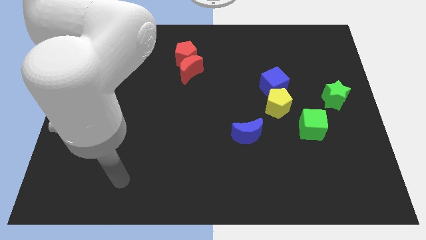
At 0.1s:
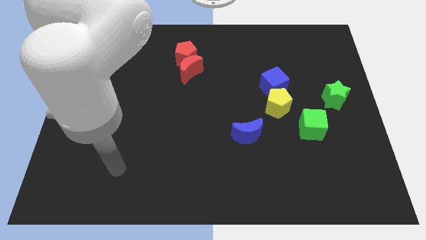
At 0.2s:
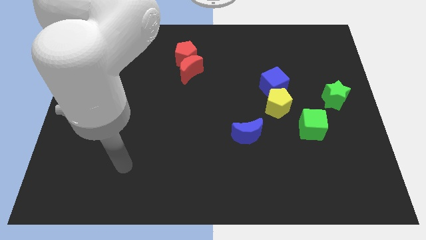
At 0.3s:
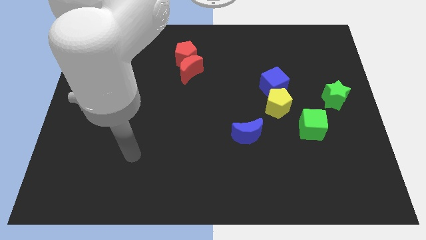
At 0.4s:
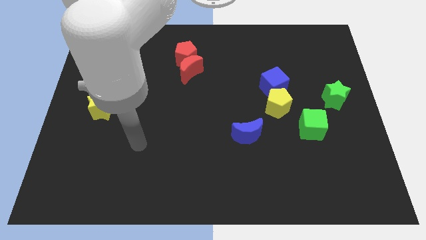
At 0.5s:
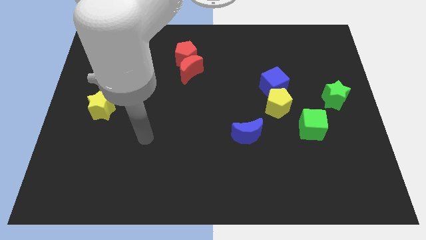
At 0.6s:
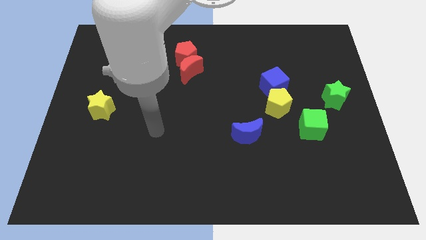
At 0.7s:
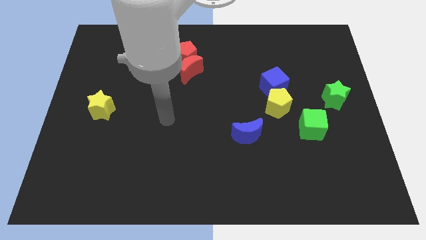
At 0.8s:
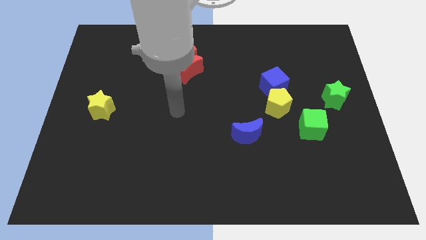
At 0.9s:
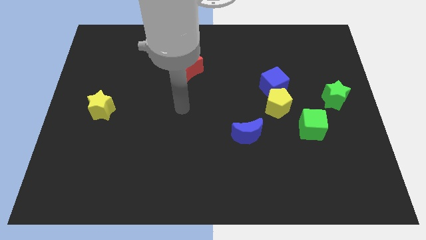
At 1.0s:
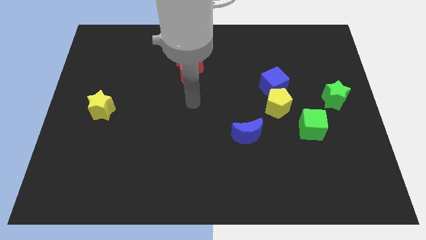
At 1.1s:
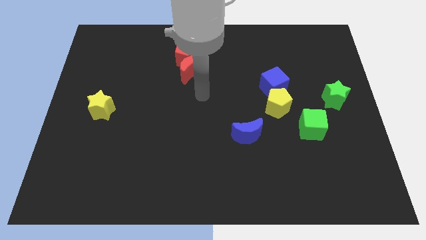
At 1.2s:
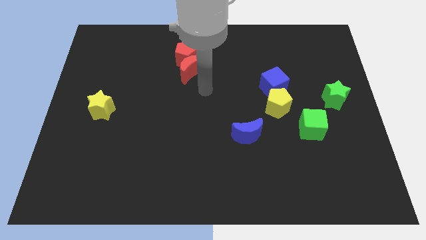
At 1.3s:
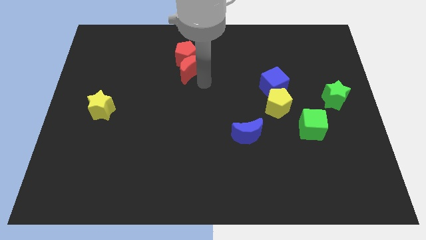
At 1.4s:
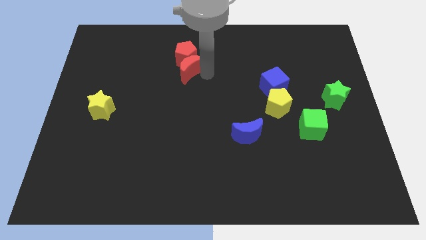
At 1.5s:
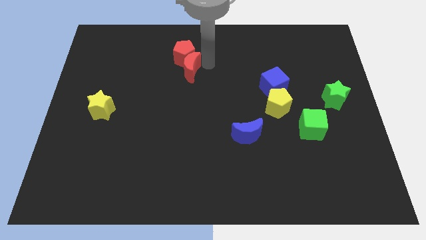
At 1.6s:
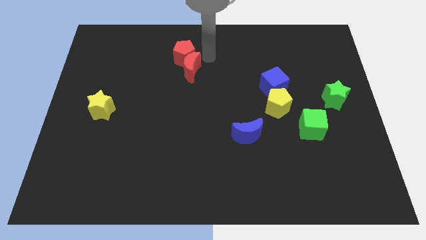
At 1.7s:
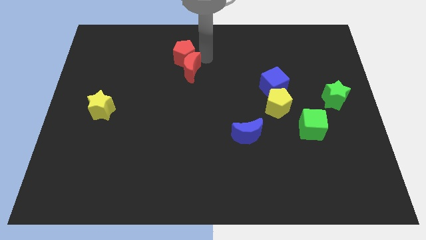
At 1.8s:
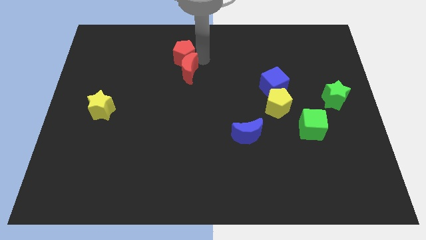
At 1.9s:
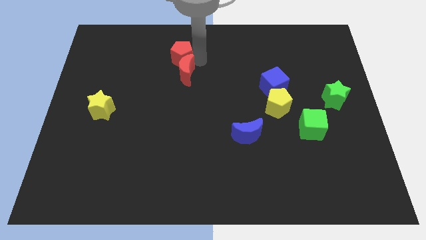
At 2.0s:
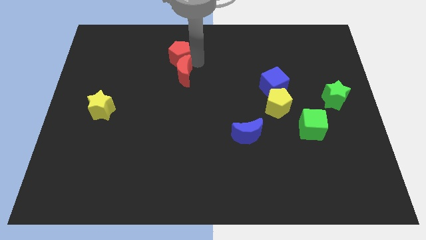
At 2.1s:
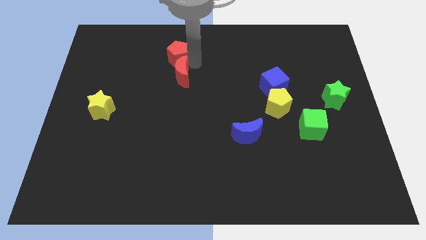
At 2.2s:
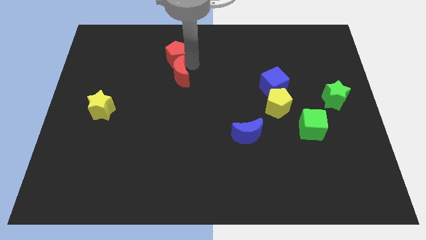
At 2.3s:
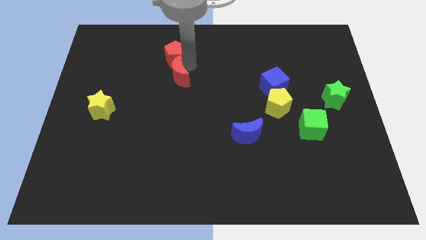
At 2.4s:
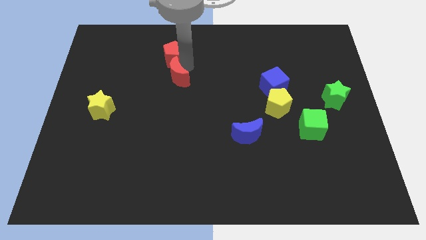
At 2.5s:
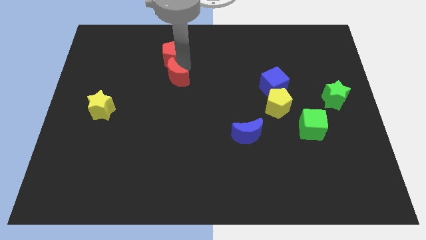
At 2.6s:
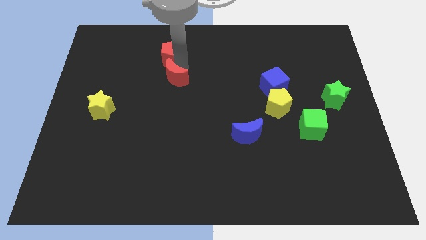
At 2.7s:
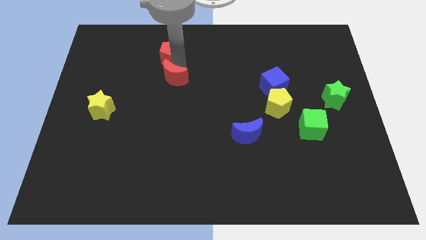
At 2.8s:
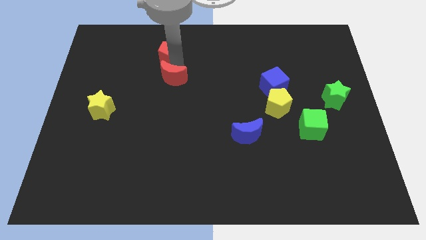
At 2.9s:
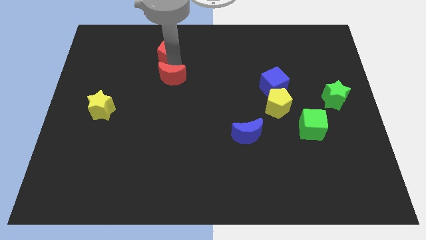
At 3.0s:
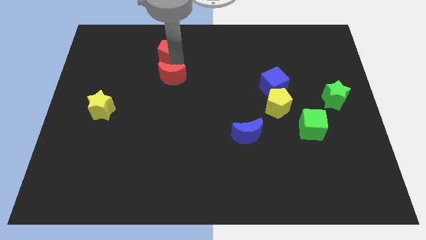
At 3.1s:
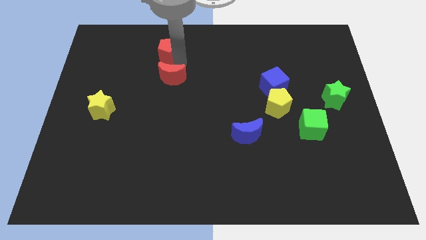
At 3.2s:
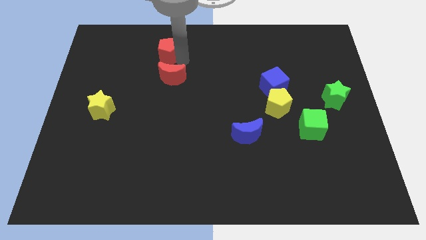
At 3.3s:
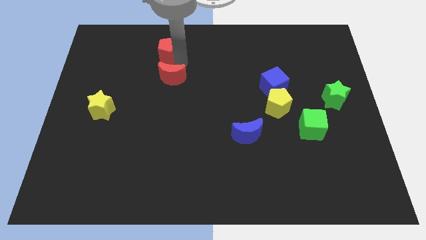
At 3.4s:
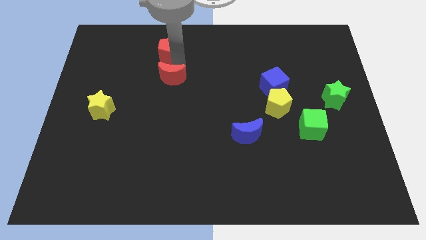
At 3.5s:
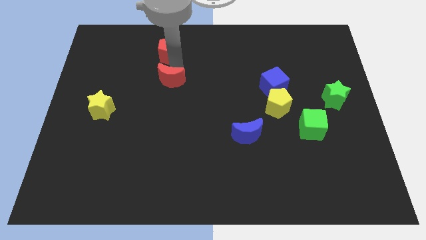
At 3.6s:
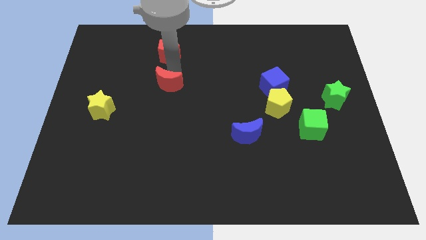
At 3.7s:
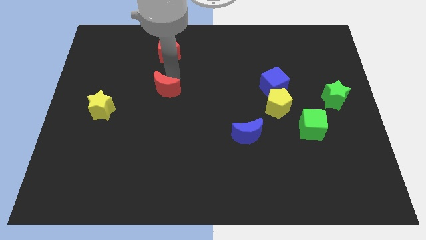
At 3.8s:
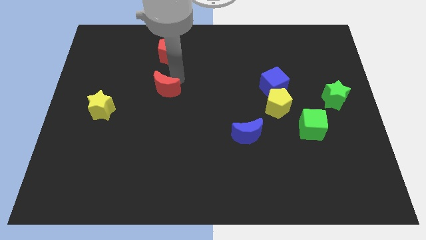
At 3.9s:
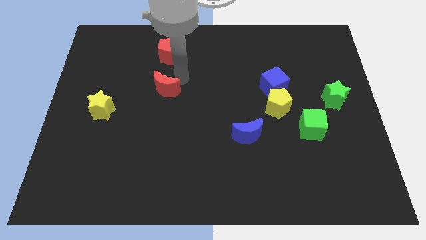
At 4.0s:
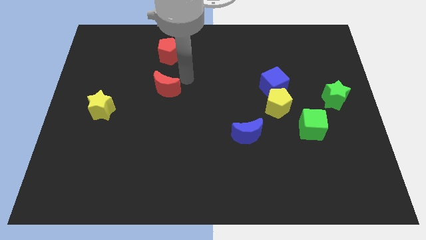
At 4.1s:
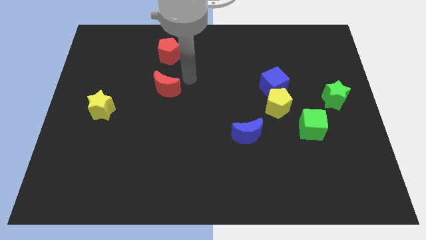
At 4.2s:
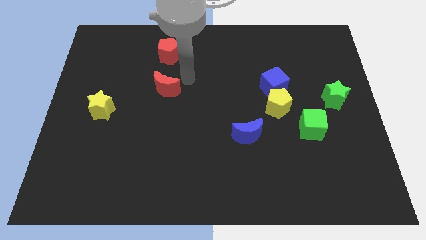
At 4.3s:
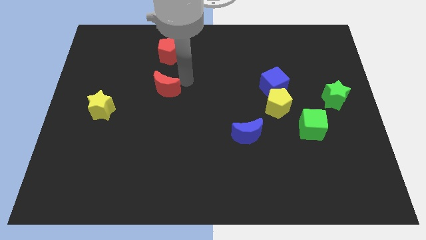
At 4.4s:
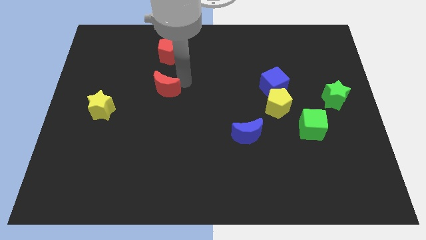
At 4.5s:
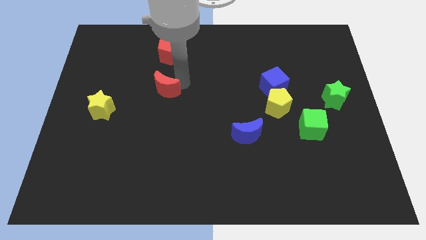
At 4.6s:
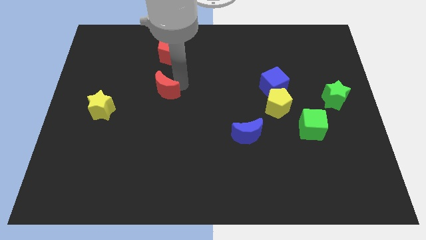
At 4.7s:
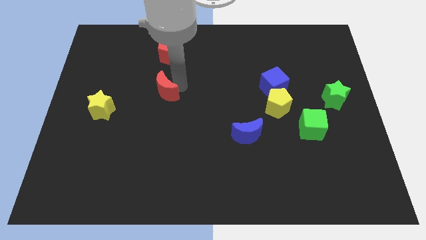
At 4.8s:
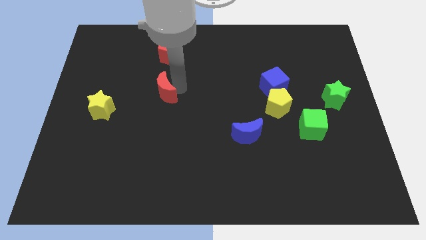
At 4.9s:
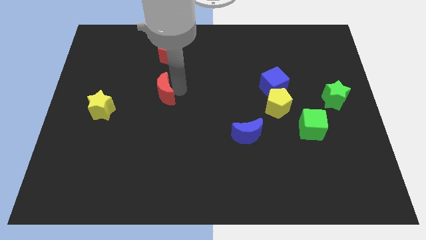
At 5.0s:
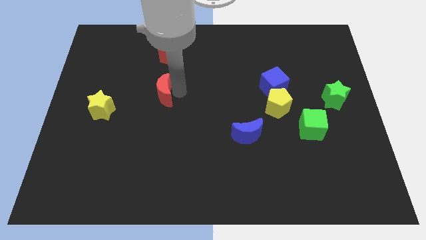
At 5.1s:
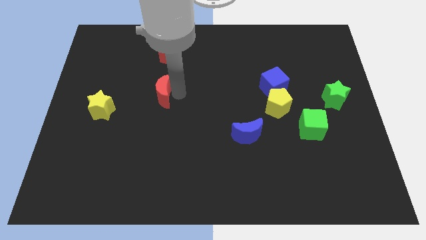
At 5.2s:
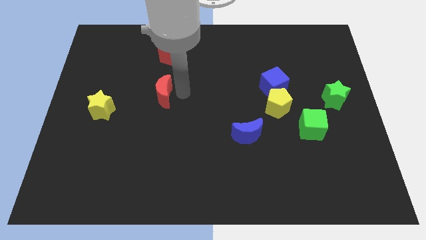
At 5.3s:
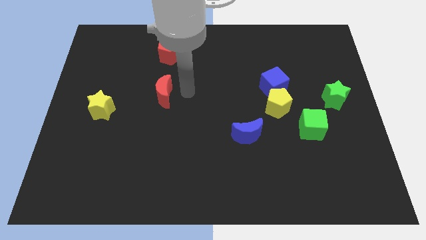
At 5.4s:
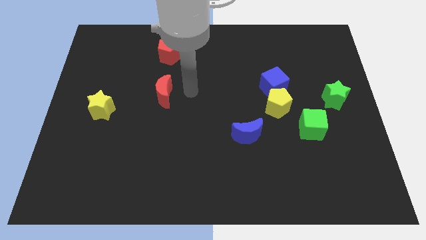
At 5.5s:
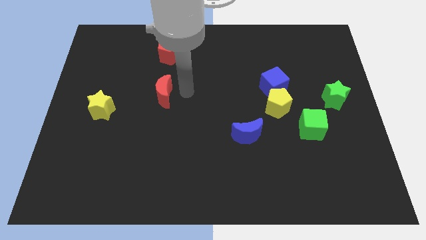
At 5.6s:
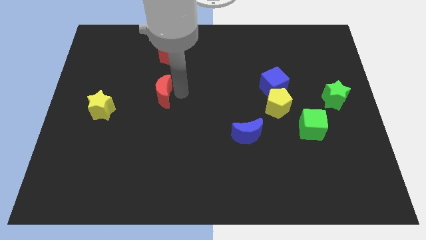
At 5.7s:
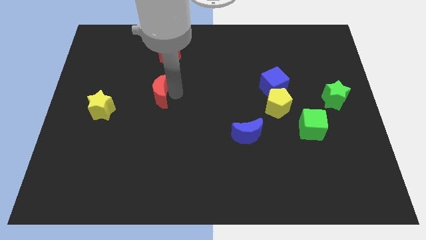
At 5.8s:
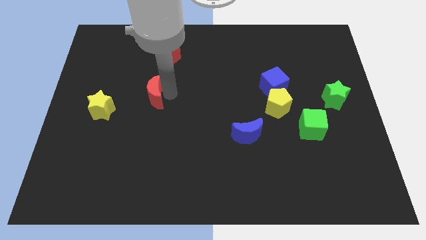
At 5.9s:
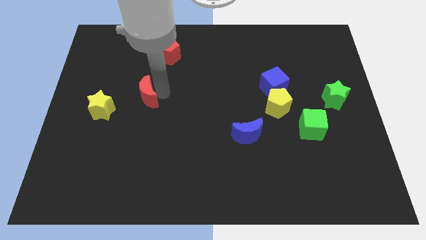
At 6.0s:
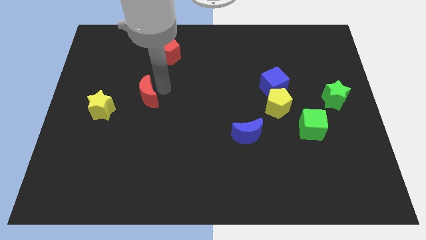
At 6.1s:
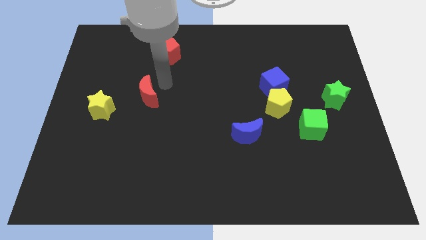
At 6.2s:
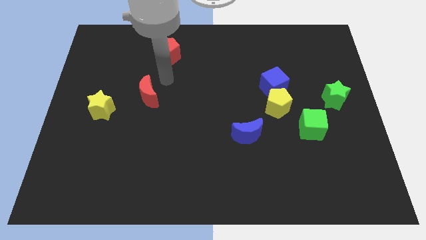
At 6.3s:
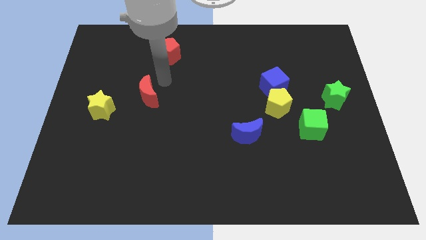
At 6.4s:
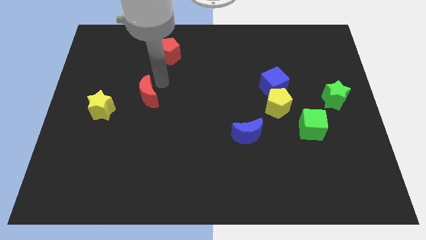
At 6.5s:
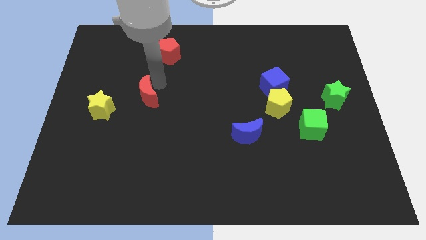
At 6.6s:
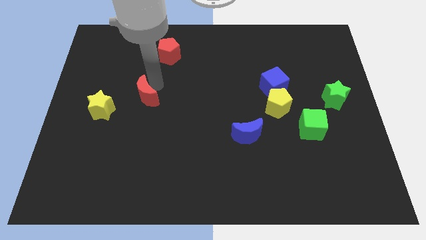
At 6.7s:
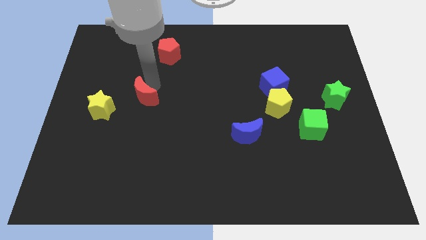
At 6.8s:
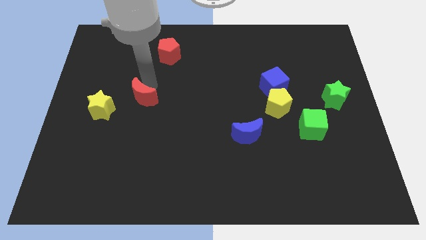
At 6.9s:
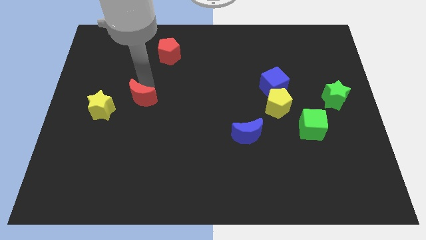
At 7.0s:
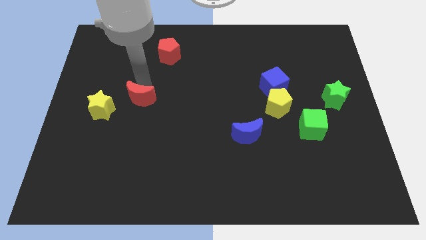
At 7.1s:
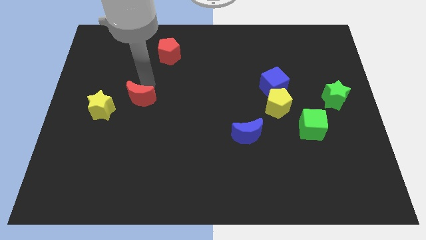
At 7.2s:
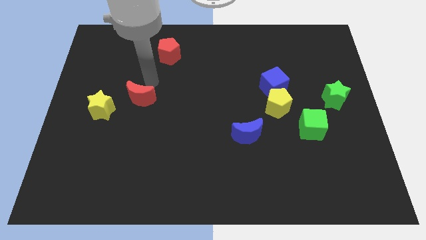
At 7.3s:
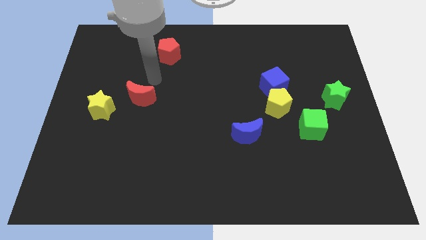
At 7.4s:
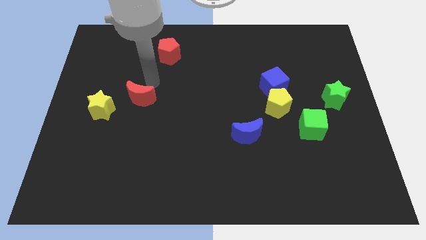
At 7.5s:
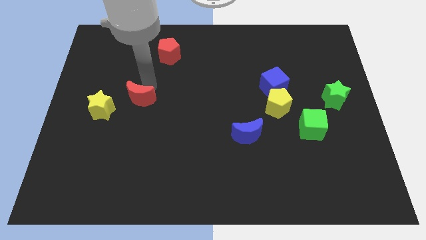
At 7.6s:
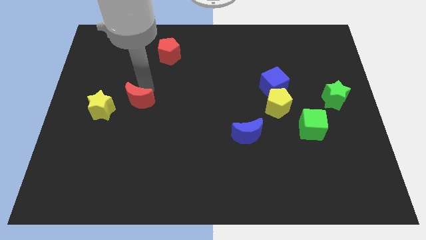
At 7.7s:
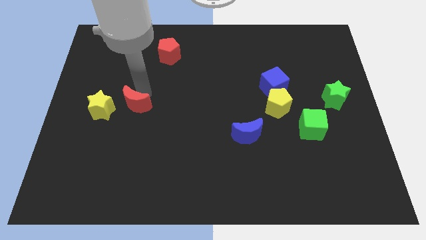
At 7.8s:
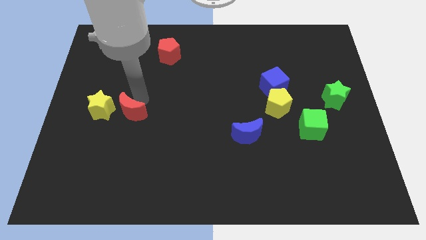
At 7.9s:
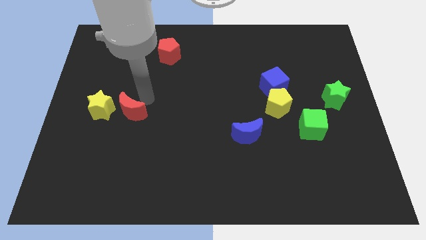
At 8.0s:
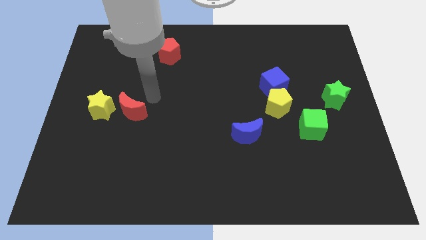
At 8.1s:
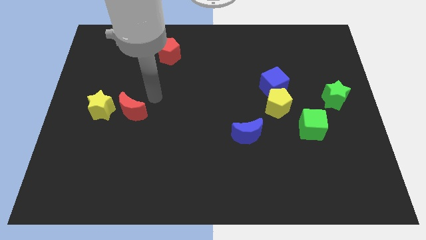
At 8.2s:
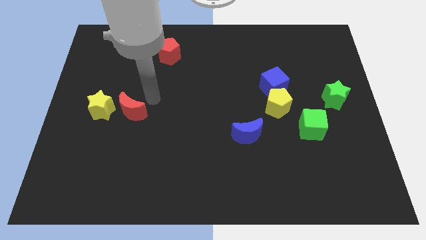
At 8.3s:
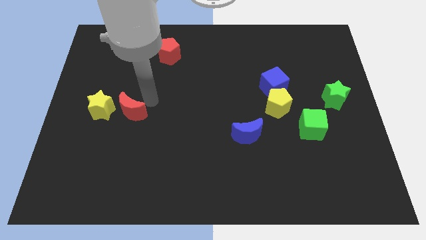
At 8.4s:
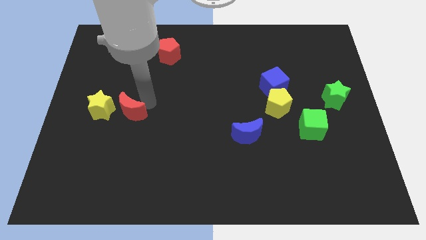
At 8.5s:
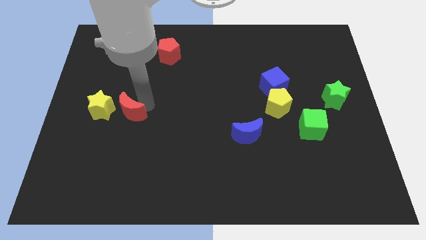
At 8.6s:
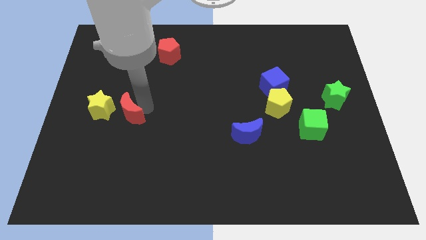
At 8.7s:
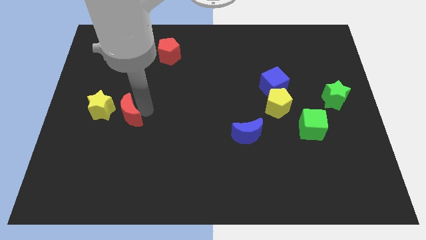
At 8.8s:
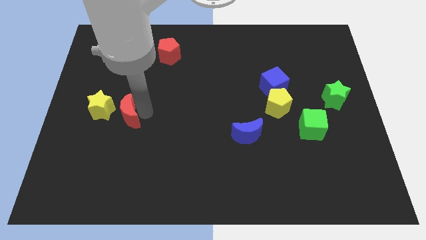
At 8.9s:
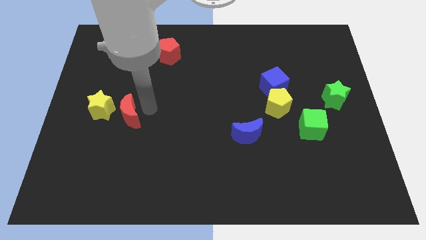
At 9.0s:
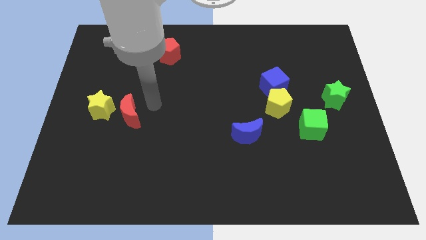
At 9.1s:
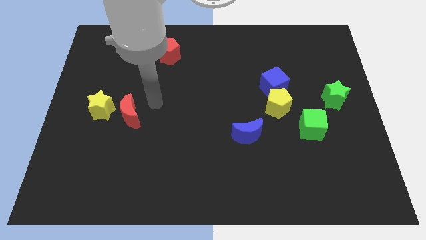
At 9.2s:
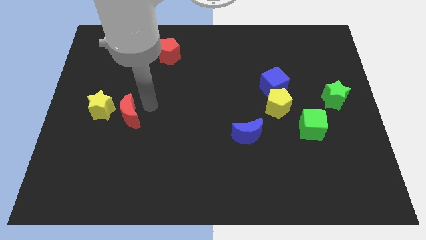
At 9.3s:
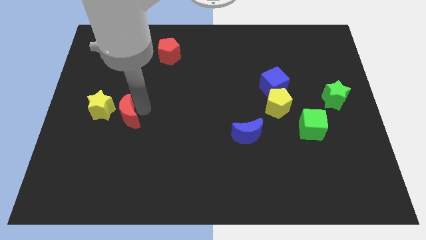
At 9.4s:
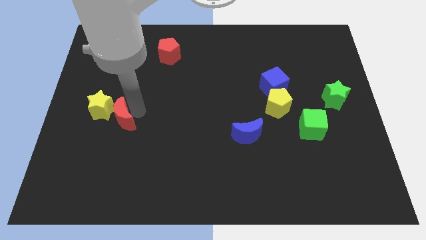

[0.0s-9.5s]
move the red moon down and left diagonally
